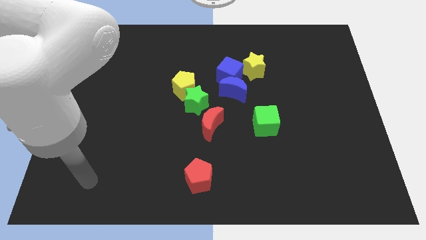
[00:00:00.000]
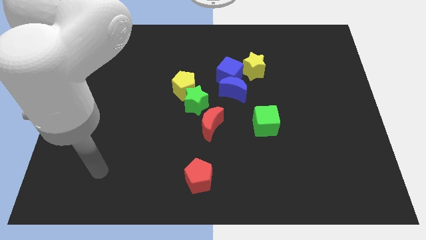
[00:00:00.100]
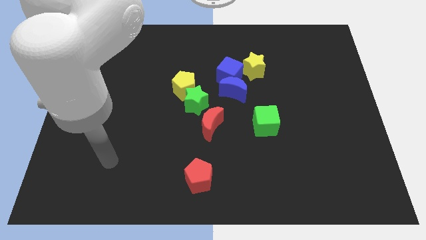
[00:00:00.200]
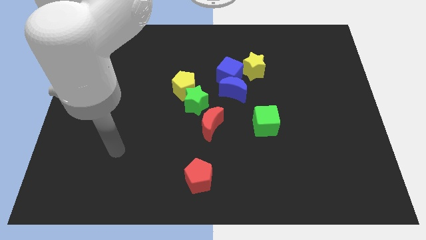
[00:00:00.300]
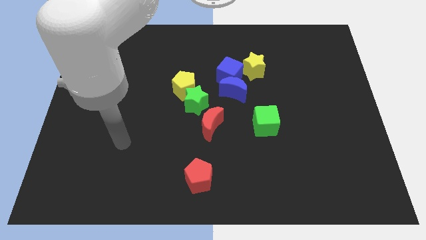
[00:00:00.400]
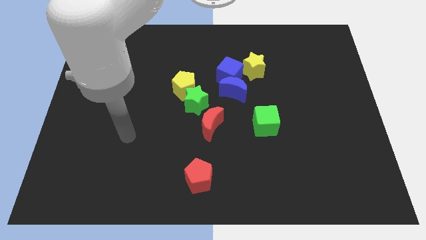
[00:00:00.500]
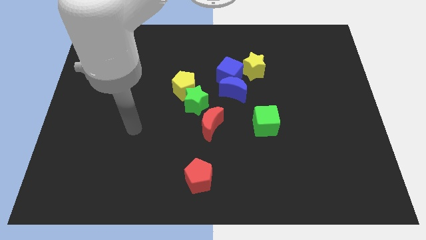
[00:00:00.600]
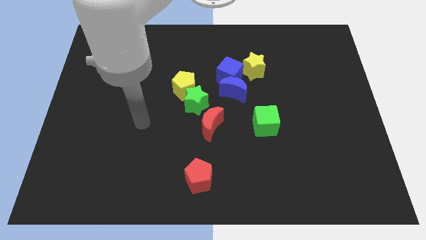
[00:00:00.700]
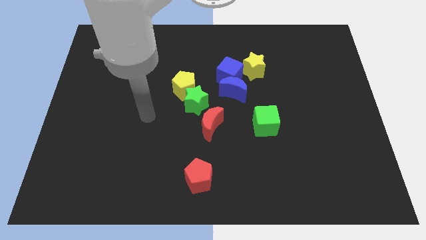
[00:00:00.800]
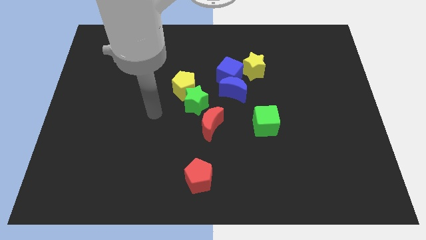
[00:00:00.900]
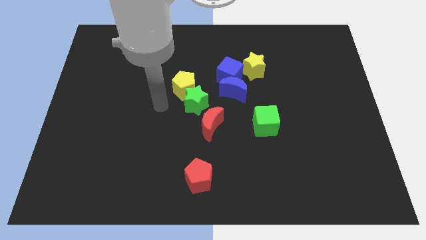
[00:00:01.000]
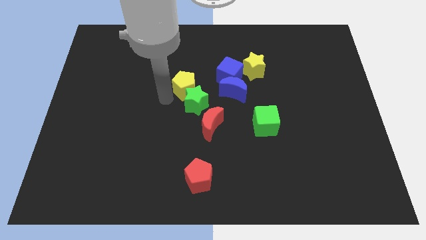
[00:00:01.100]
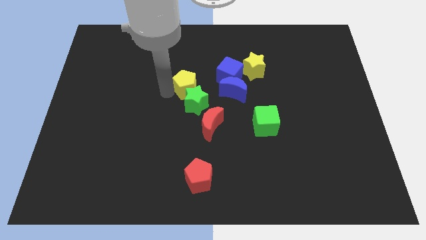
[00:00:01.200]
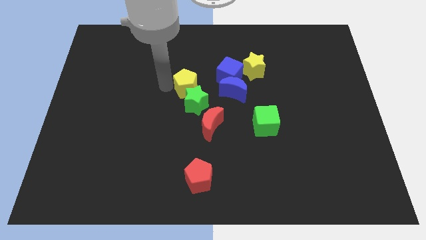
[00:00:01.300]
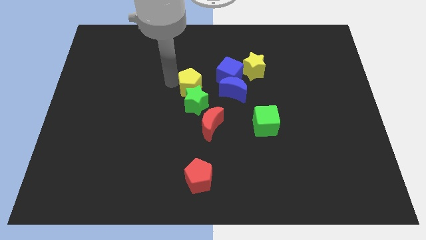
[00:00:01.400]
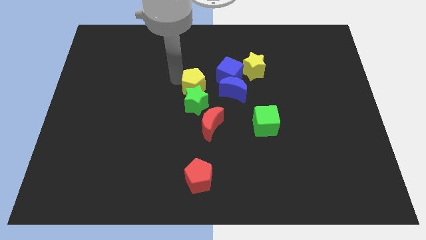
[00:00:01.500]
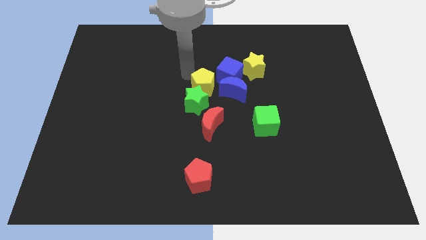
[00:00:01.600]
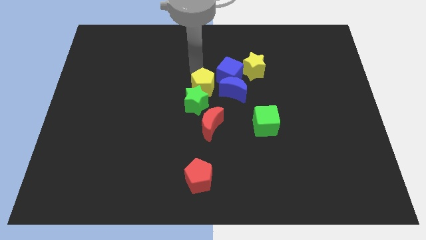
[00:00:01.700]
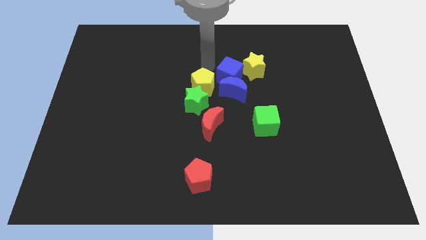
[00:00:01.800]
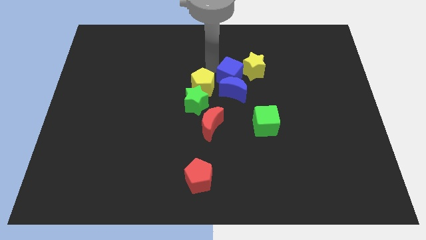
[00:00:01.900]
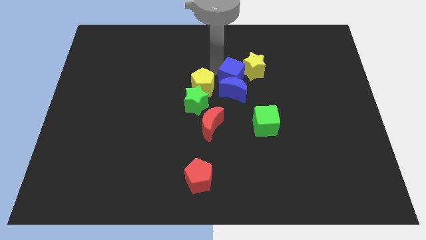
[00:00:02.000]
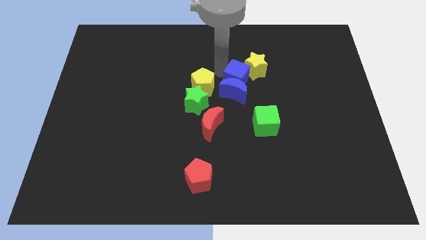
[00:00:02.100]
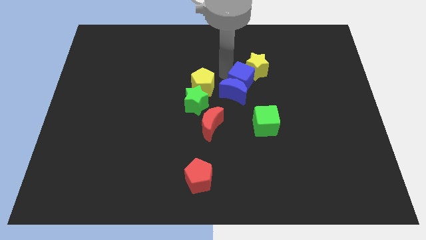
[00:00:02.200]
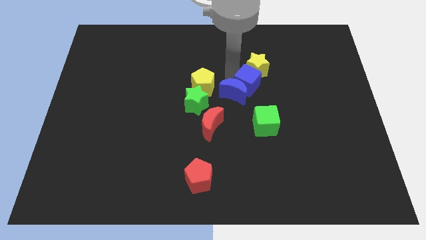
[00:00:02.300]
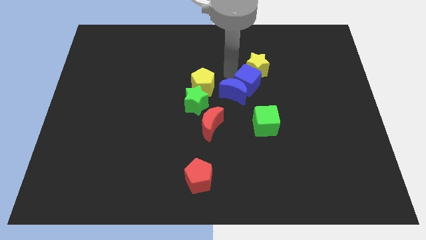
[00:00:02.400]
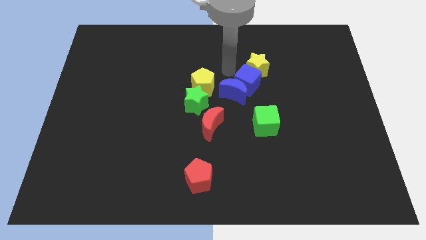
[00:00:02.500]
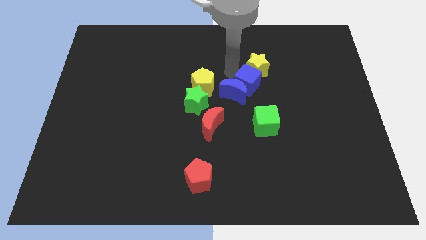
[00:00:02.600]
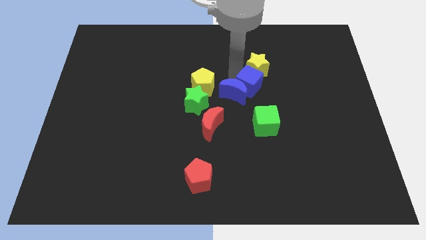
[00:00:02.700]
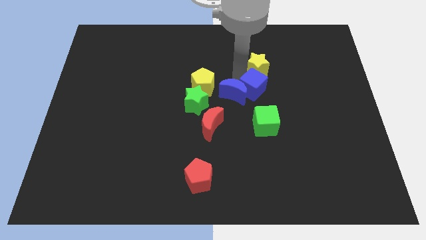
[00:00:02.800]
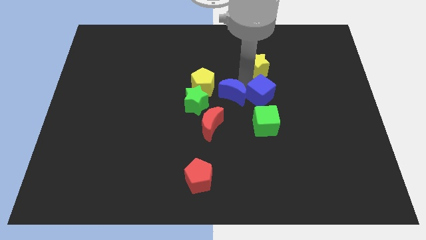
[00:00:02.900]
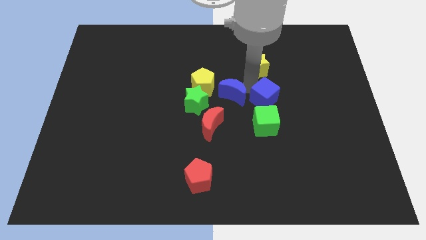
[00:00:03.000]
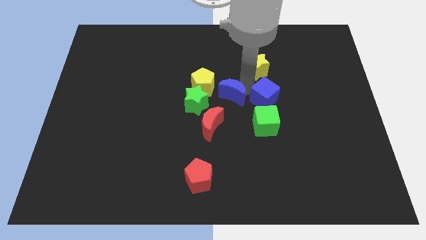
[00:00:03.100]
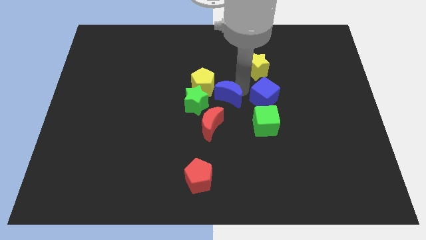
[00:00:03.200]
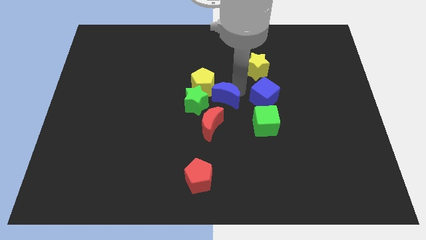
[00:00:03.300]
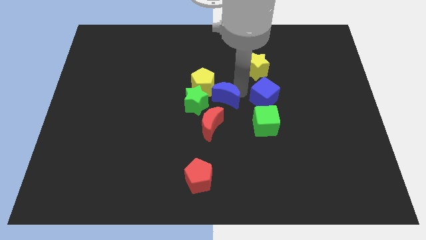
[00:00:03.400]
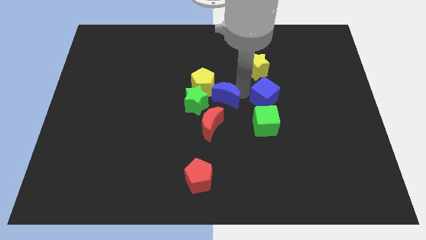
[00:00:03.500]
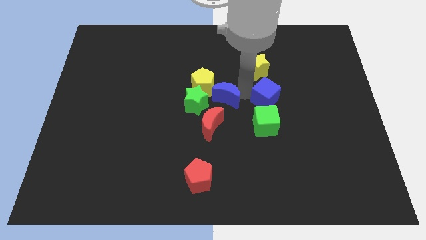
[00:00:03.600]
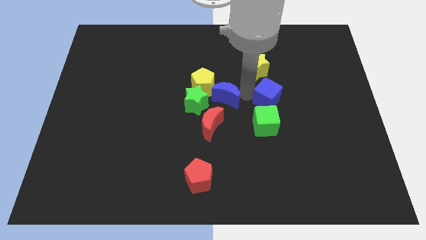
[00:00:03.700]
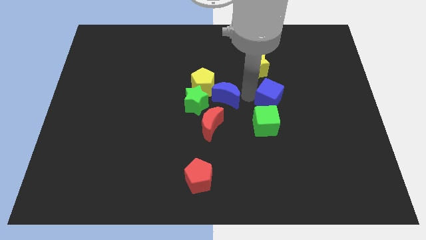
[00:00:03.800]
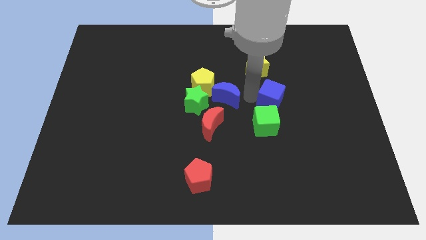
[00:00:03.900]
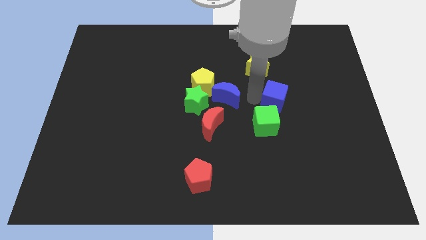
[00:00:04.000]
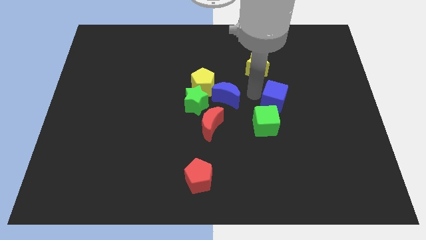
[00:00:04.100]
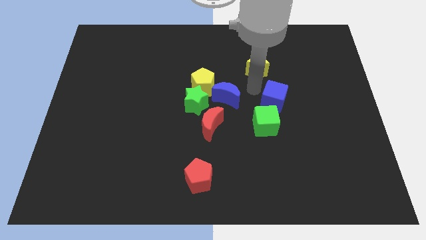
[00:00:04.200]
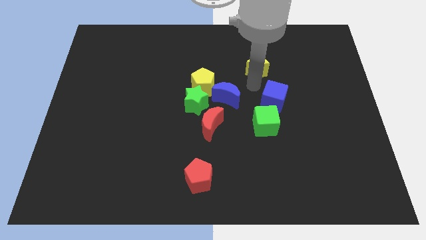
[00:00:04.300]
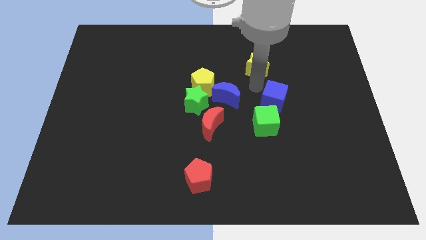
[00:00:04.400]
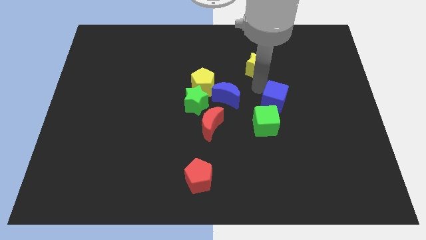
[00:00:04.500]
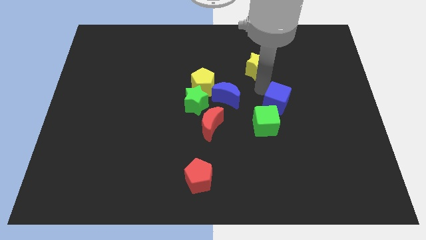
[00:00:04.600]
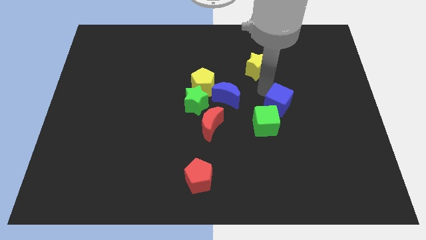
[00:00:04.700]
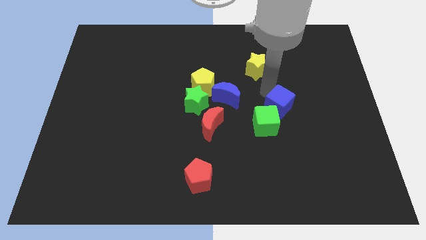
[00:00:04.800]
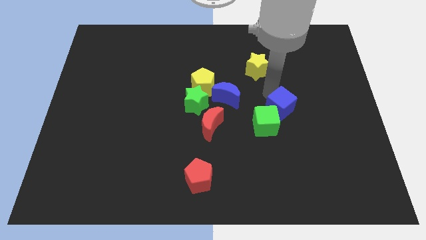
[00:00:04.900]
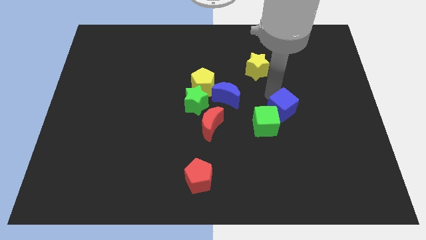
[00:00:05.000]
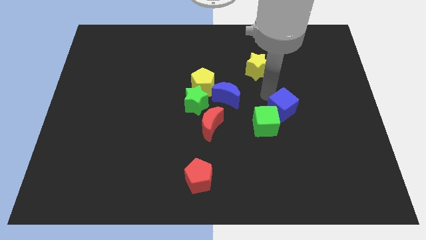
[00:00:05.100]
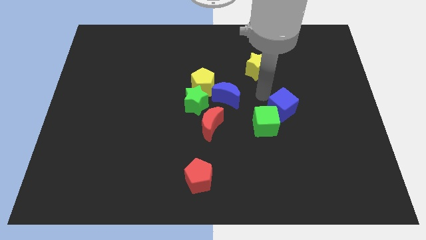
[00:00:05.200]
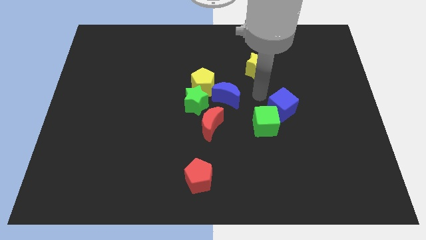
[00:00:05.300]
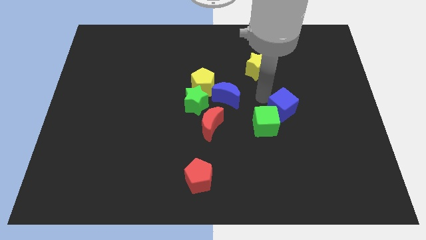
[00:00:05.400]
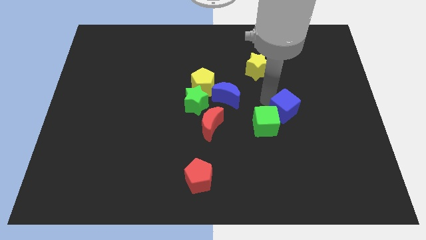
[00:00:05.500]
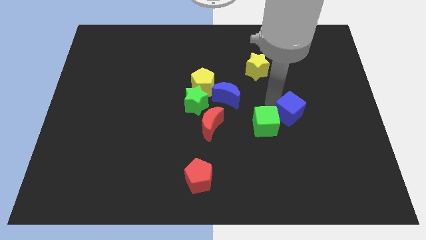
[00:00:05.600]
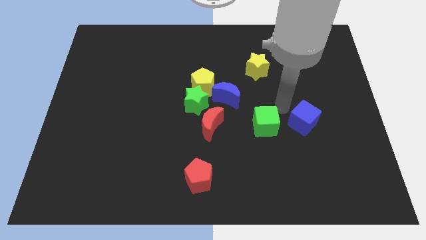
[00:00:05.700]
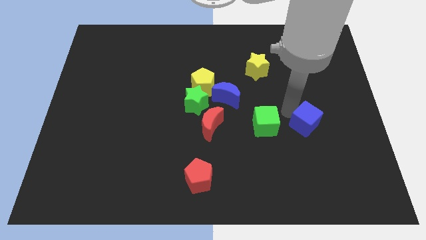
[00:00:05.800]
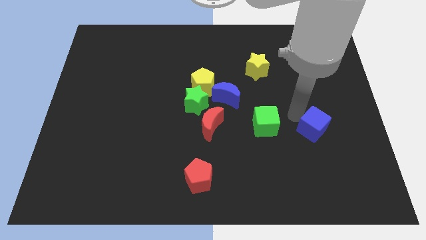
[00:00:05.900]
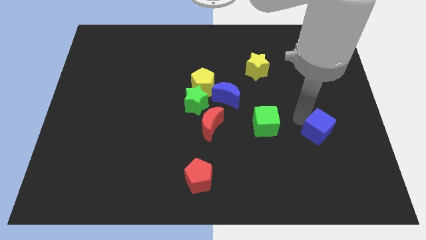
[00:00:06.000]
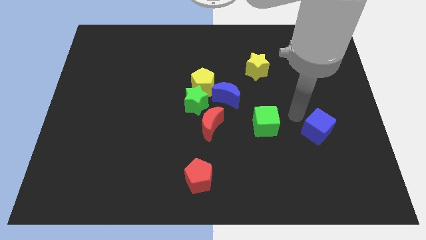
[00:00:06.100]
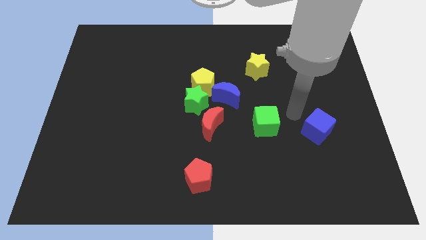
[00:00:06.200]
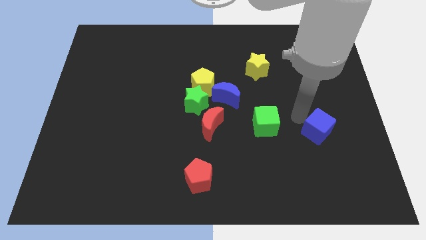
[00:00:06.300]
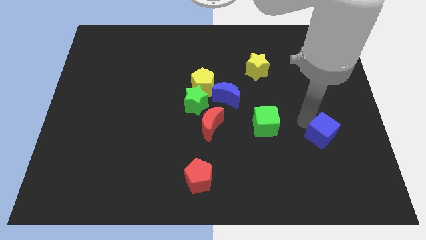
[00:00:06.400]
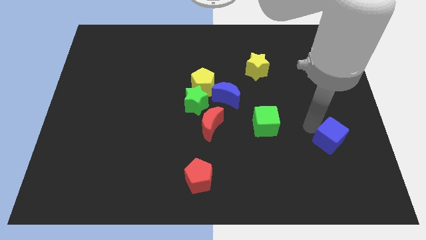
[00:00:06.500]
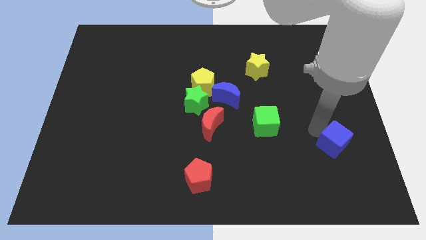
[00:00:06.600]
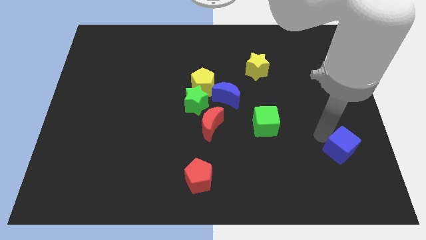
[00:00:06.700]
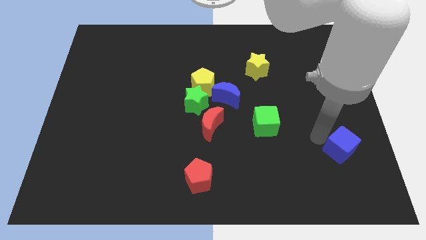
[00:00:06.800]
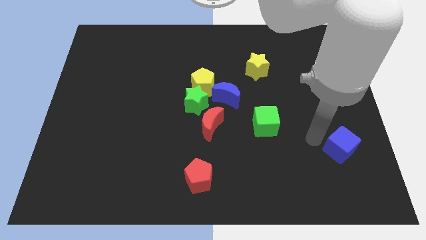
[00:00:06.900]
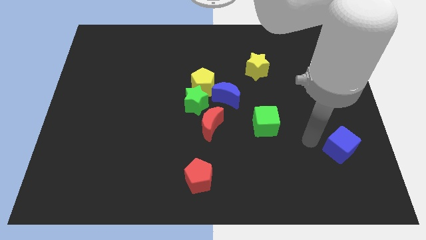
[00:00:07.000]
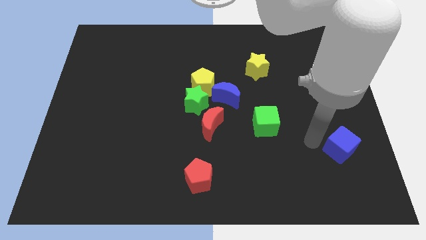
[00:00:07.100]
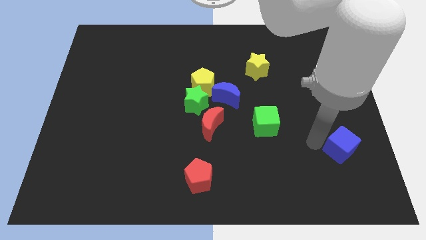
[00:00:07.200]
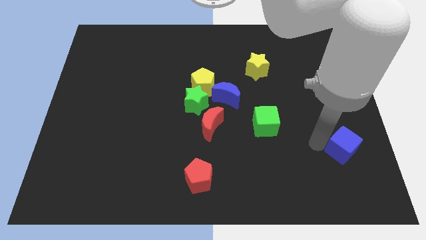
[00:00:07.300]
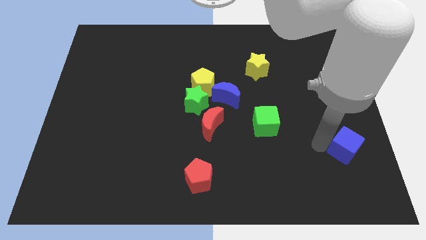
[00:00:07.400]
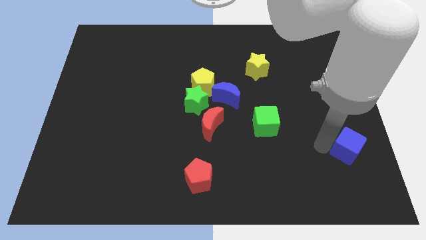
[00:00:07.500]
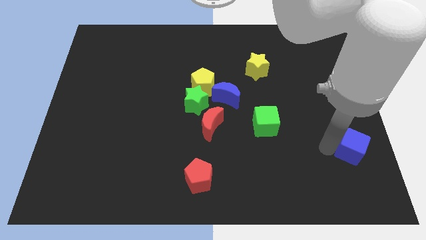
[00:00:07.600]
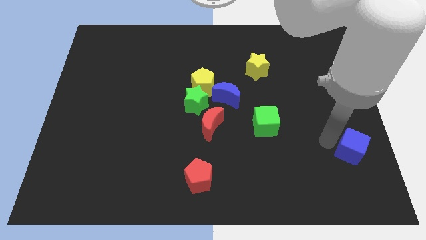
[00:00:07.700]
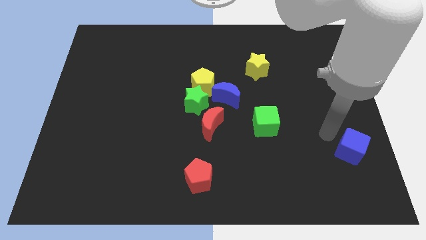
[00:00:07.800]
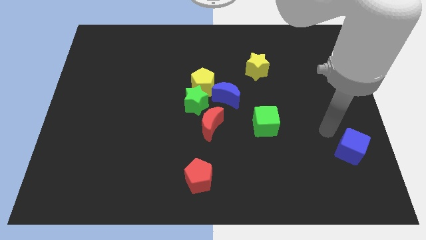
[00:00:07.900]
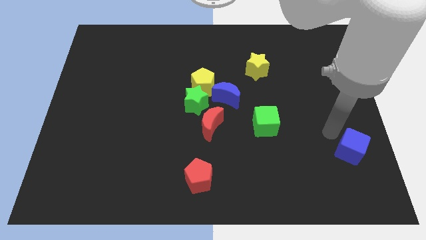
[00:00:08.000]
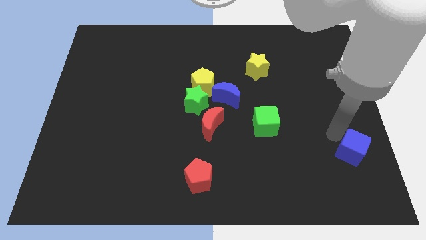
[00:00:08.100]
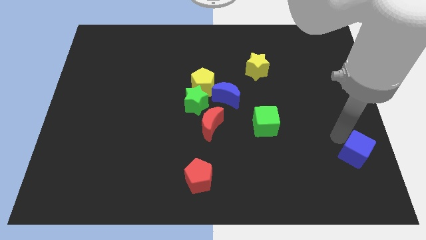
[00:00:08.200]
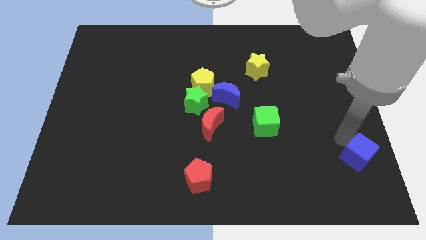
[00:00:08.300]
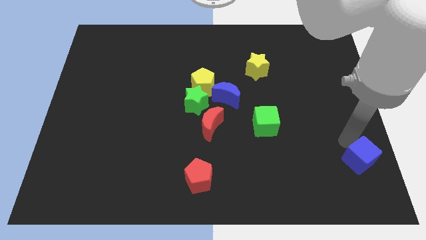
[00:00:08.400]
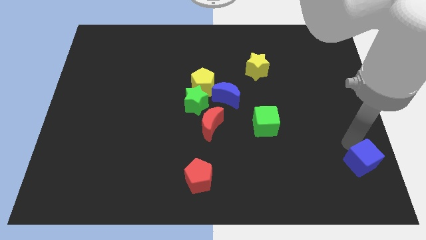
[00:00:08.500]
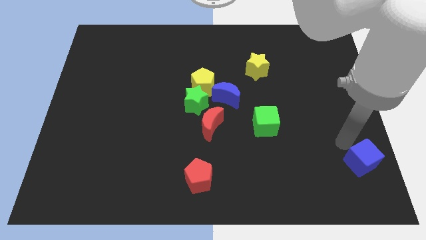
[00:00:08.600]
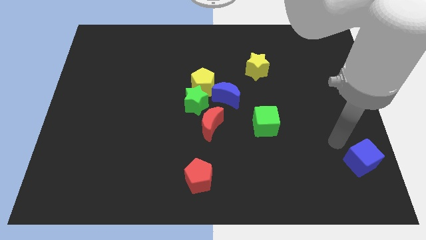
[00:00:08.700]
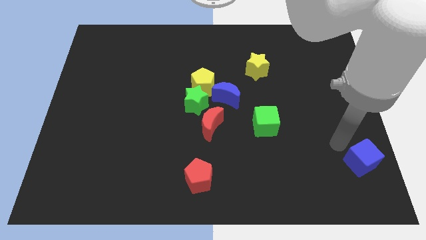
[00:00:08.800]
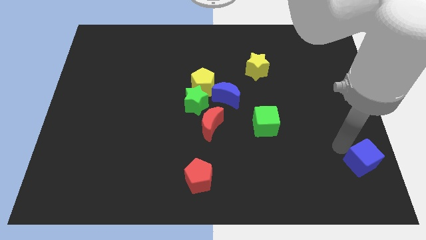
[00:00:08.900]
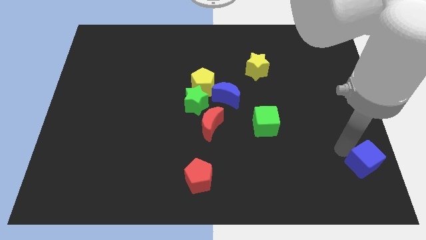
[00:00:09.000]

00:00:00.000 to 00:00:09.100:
push the blue cube to the bottom right
